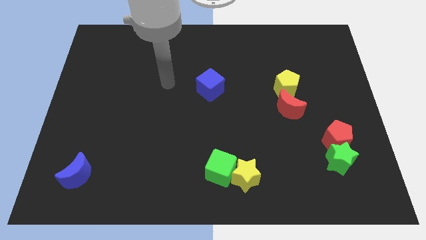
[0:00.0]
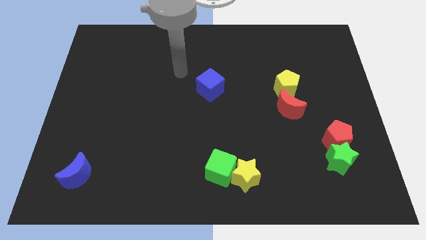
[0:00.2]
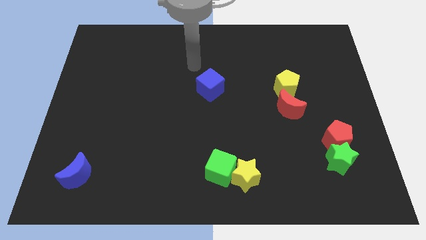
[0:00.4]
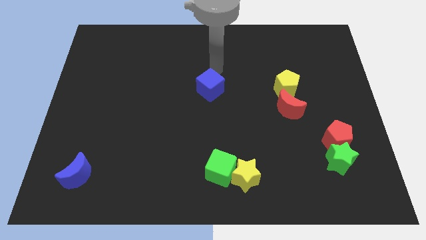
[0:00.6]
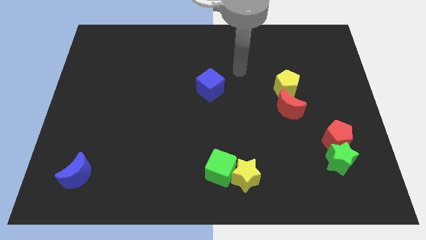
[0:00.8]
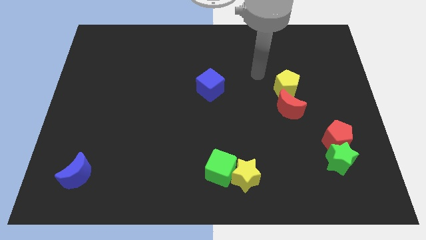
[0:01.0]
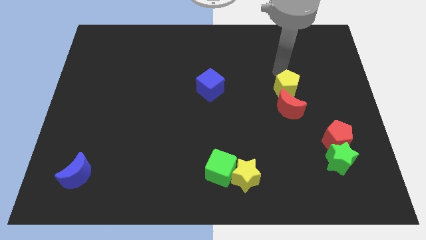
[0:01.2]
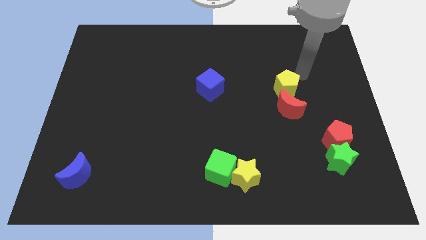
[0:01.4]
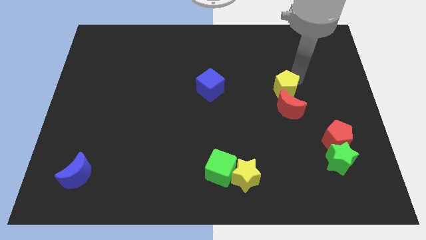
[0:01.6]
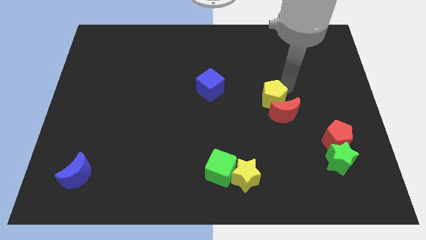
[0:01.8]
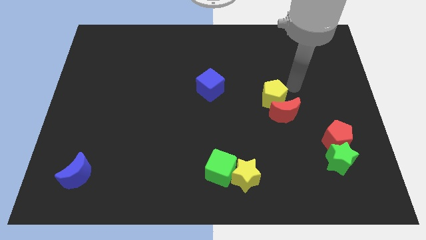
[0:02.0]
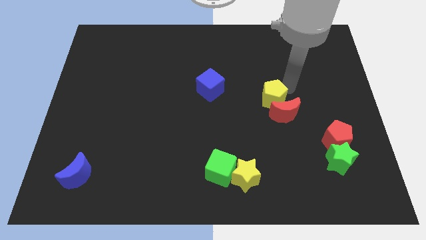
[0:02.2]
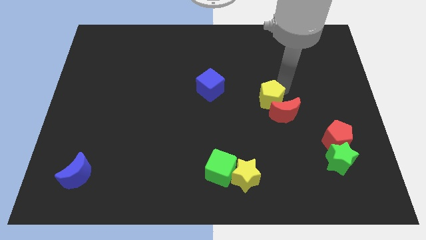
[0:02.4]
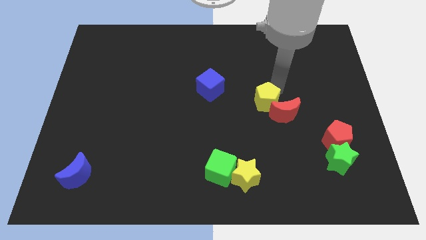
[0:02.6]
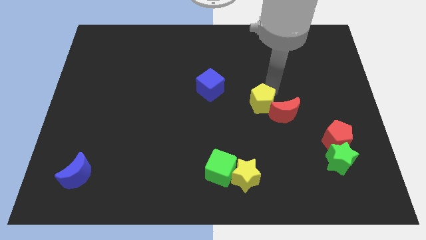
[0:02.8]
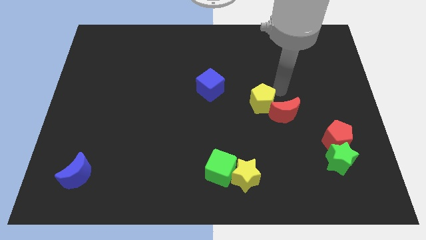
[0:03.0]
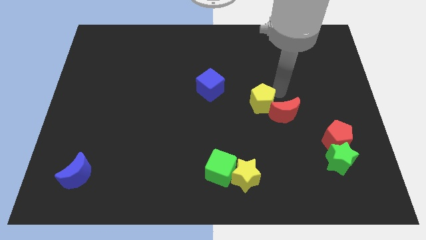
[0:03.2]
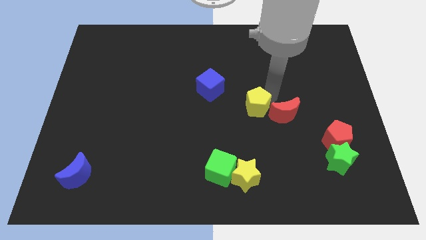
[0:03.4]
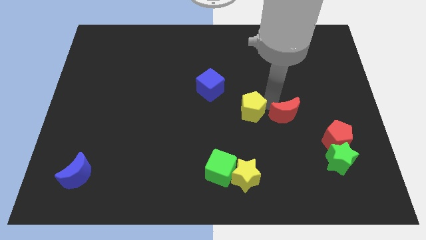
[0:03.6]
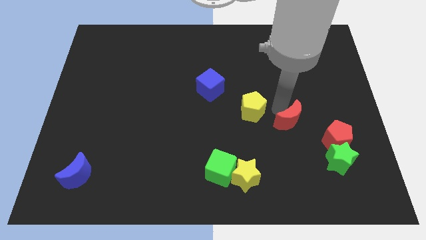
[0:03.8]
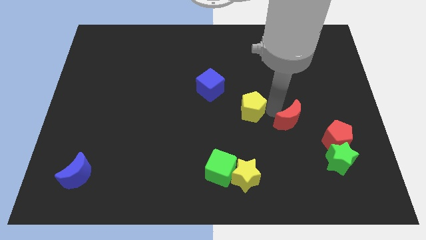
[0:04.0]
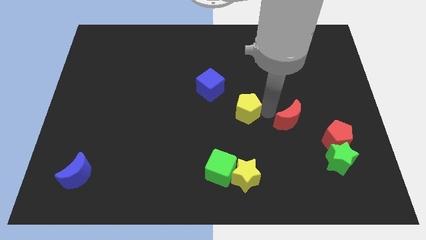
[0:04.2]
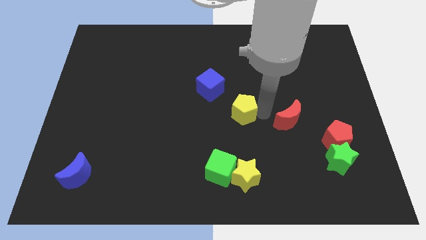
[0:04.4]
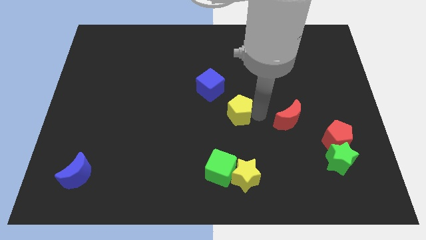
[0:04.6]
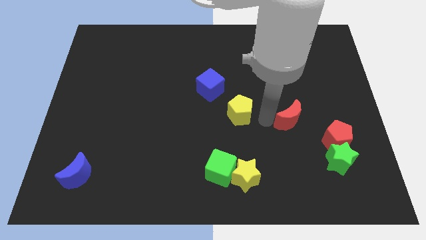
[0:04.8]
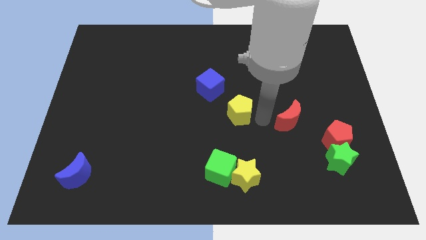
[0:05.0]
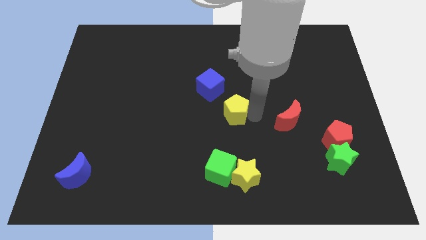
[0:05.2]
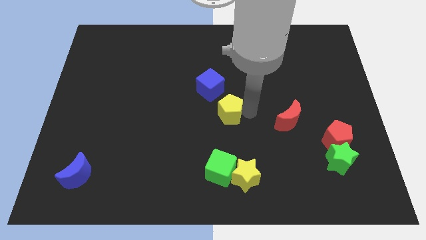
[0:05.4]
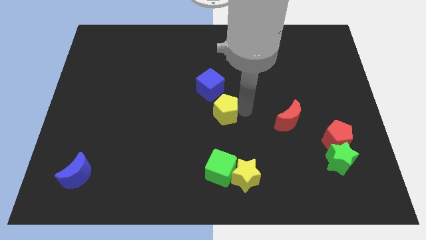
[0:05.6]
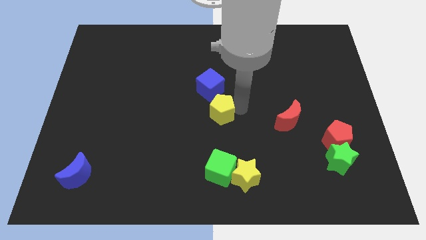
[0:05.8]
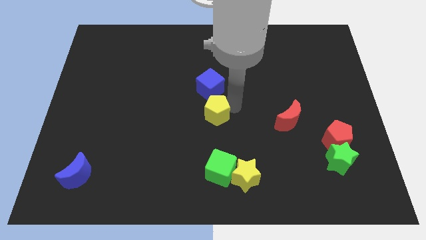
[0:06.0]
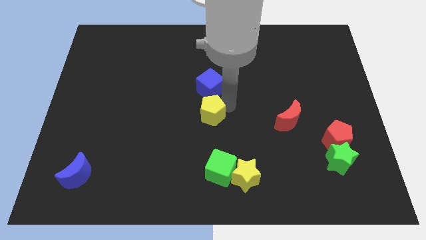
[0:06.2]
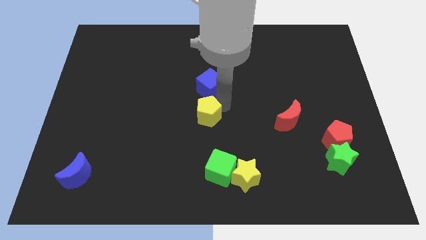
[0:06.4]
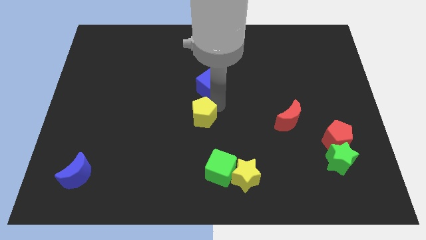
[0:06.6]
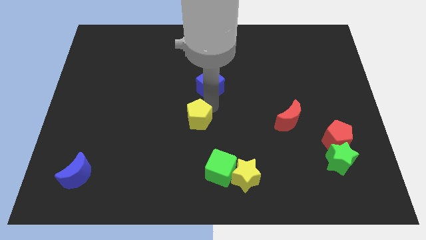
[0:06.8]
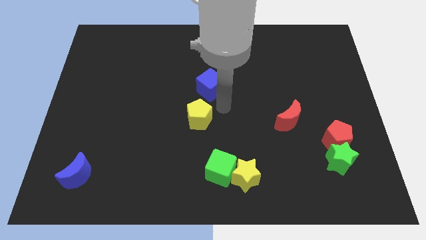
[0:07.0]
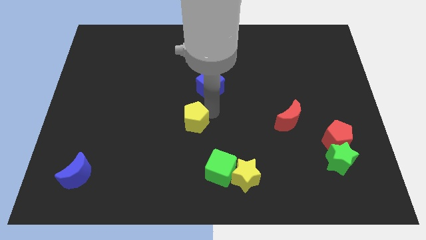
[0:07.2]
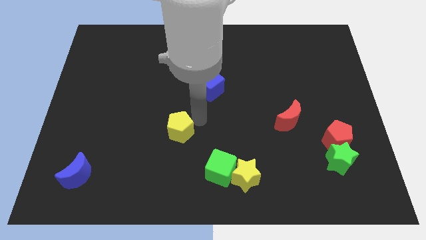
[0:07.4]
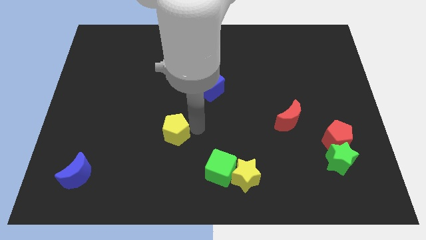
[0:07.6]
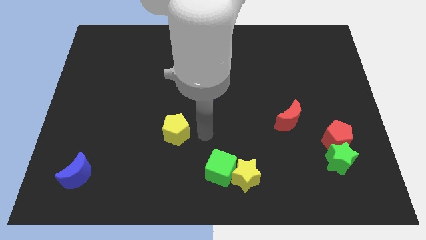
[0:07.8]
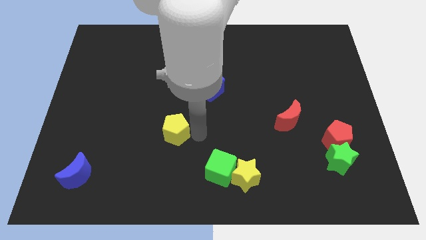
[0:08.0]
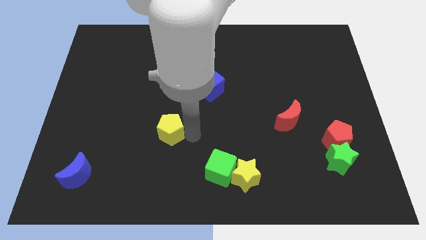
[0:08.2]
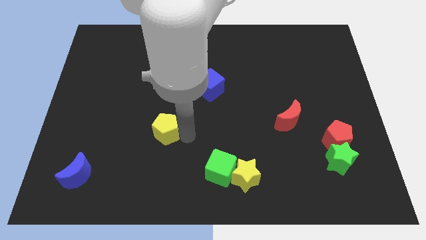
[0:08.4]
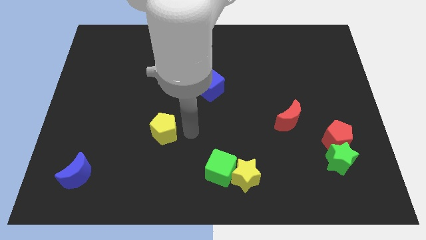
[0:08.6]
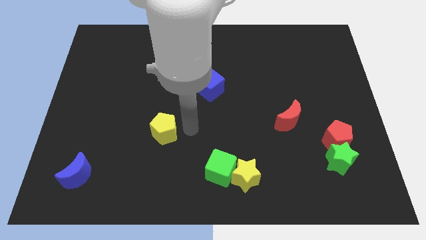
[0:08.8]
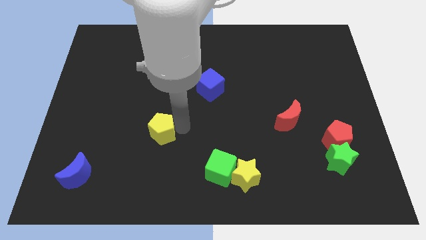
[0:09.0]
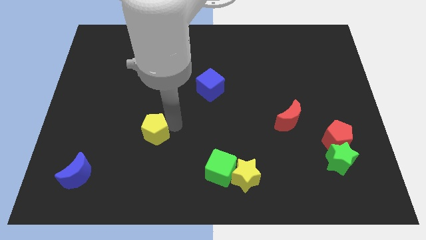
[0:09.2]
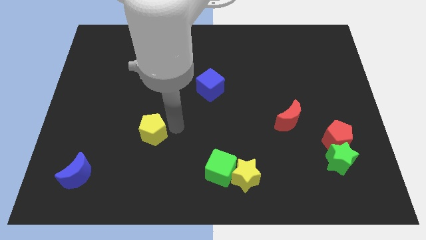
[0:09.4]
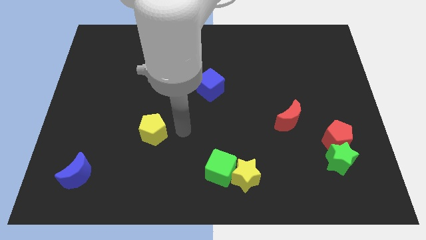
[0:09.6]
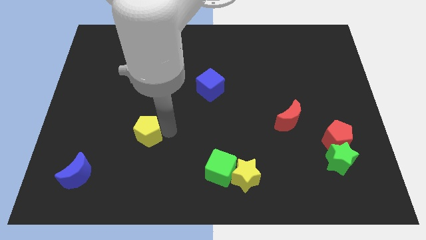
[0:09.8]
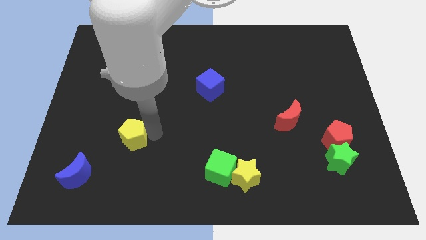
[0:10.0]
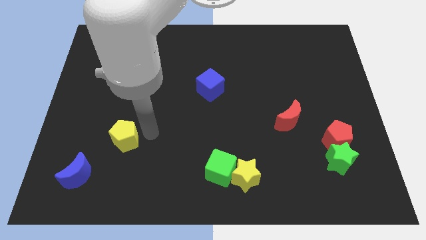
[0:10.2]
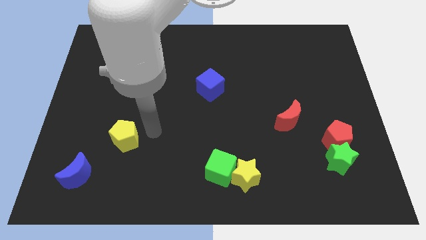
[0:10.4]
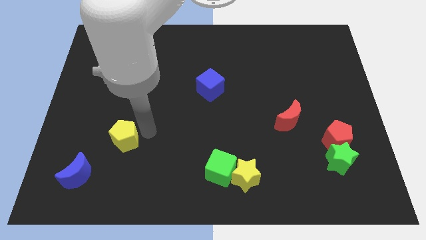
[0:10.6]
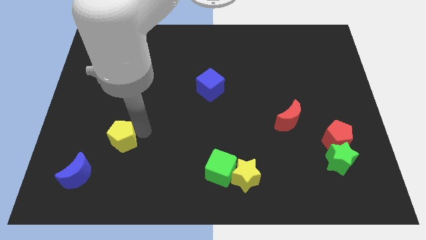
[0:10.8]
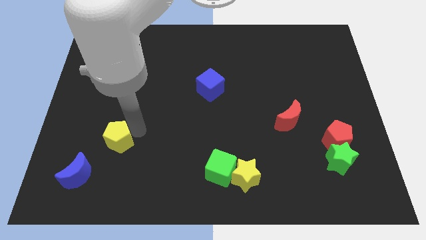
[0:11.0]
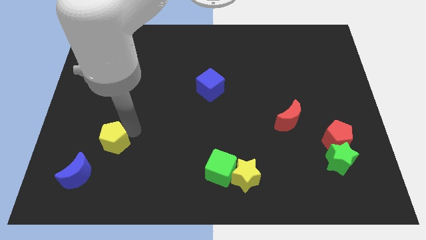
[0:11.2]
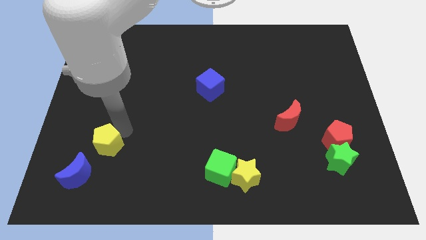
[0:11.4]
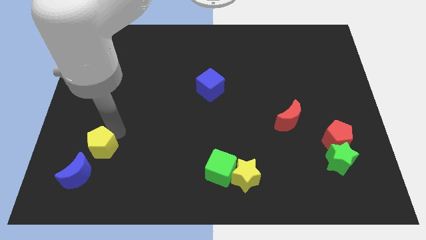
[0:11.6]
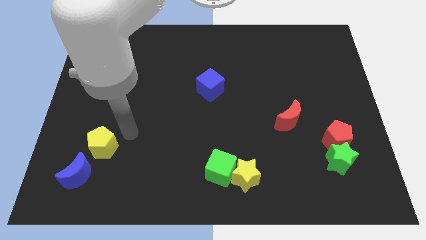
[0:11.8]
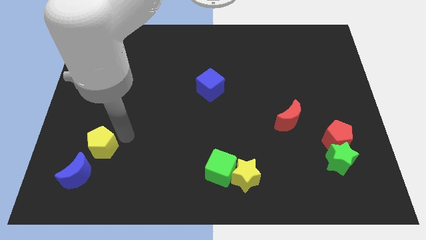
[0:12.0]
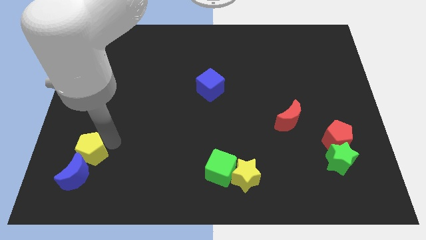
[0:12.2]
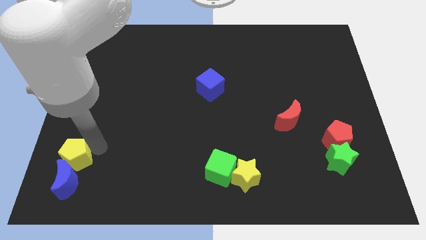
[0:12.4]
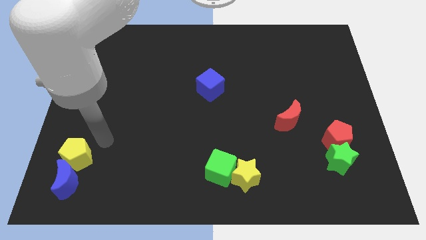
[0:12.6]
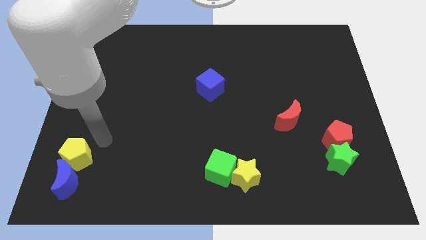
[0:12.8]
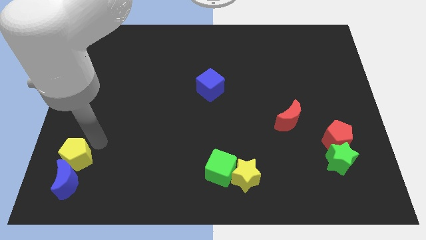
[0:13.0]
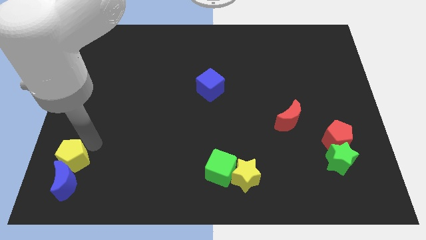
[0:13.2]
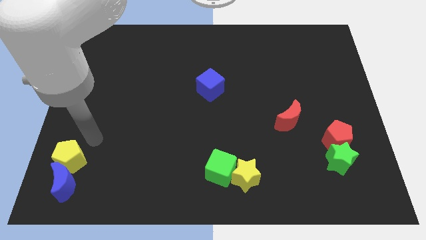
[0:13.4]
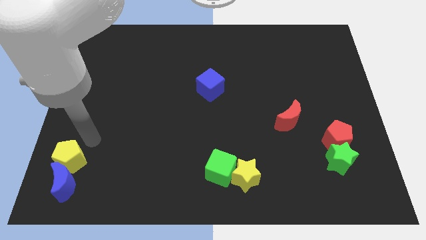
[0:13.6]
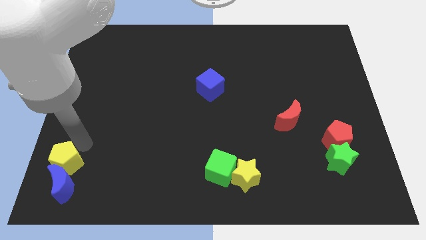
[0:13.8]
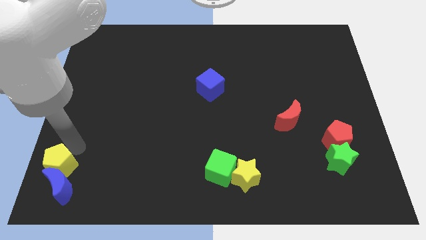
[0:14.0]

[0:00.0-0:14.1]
put the yellow pentagon to the bottom left corner

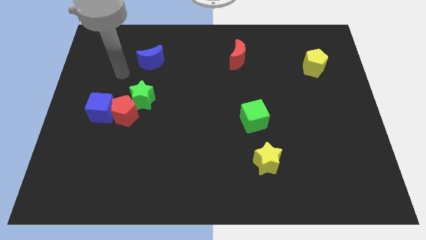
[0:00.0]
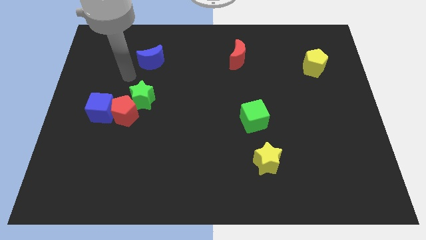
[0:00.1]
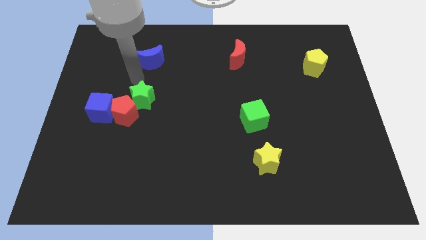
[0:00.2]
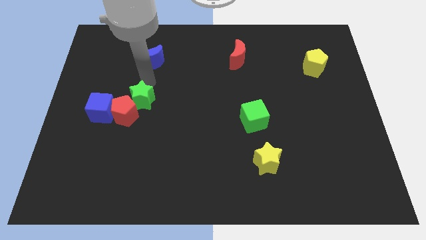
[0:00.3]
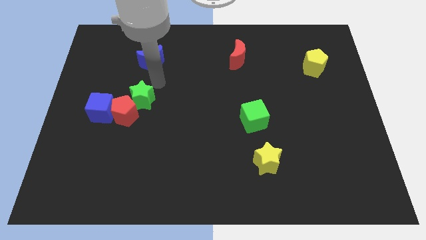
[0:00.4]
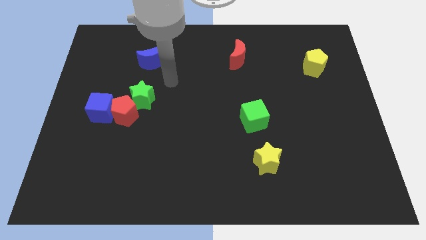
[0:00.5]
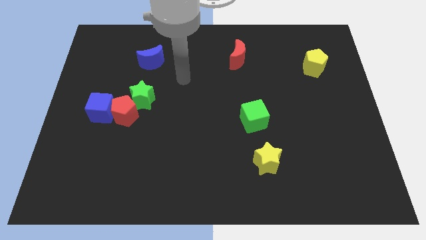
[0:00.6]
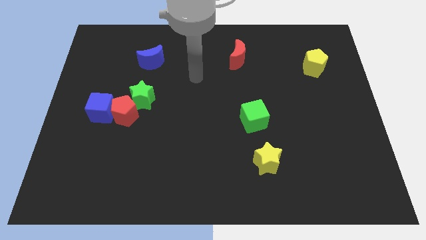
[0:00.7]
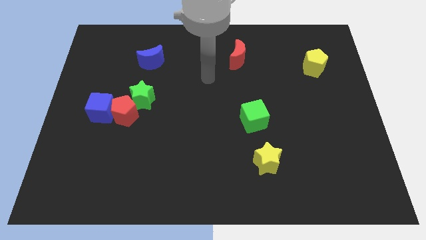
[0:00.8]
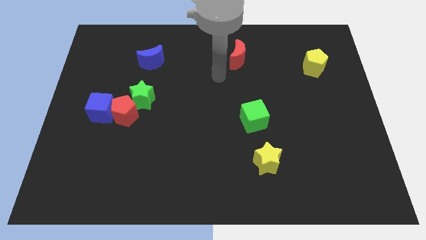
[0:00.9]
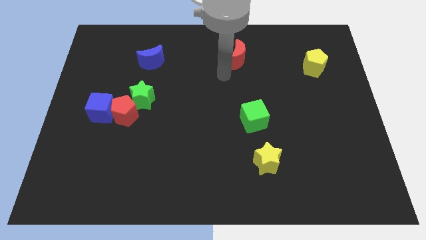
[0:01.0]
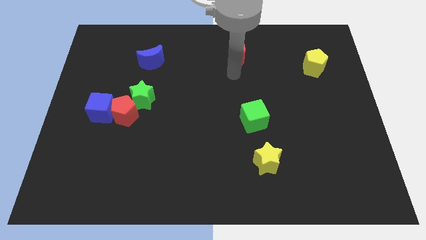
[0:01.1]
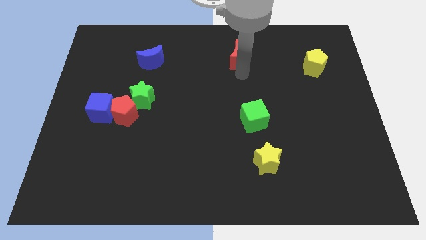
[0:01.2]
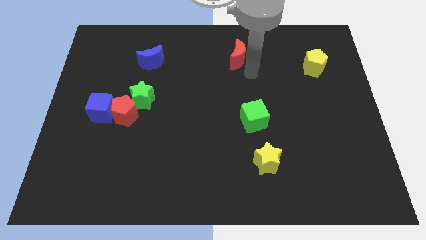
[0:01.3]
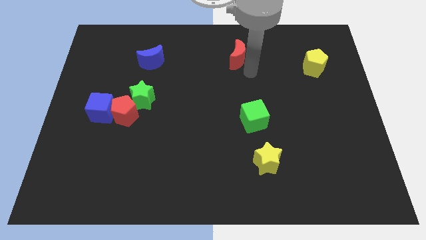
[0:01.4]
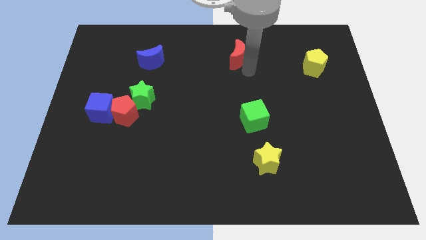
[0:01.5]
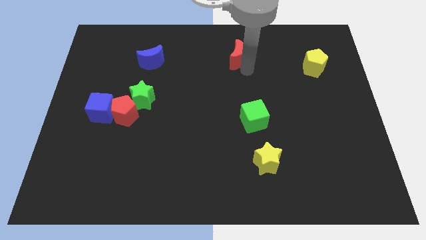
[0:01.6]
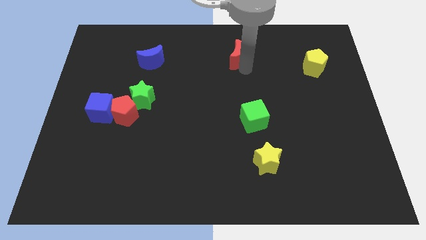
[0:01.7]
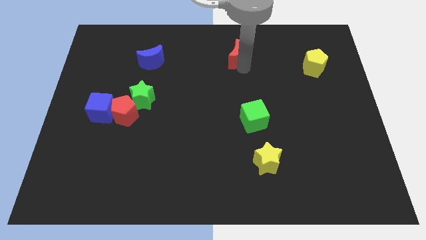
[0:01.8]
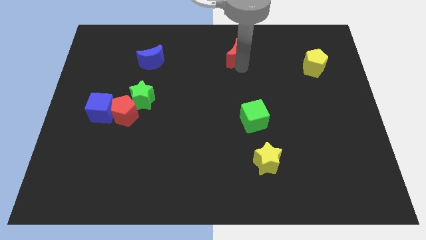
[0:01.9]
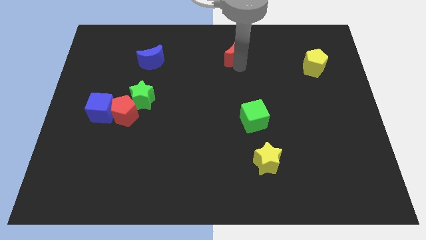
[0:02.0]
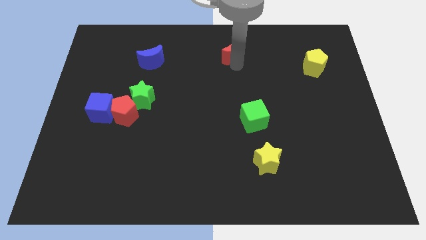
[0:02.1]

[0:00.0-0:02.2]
slide the red moon to the towards your base
